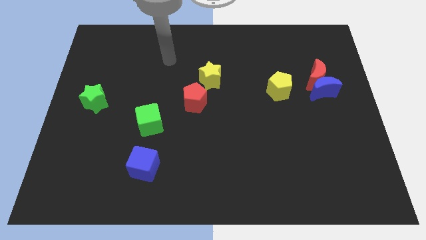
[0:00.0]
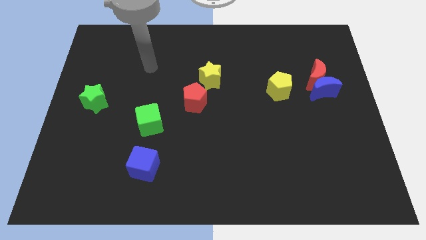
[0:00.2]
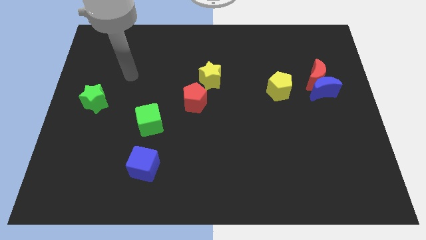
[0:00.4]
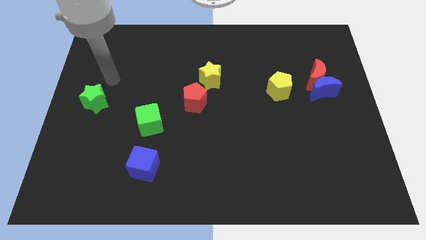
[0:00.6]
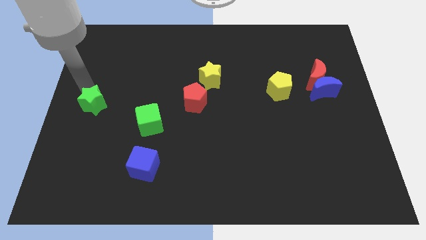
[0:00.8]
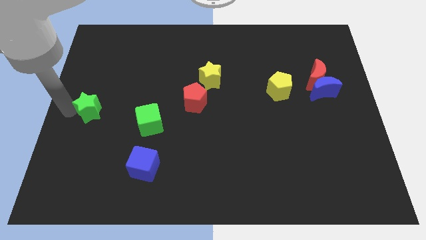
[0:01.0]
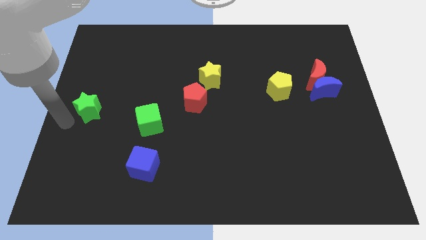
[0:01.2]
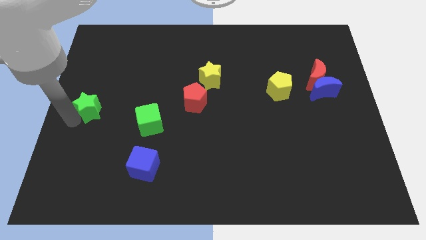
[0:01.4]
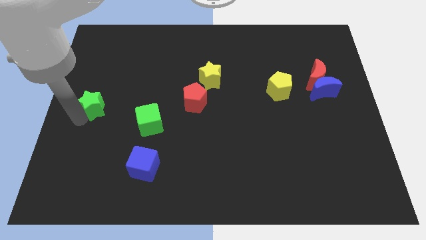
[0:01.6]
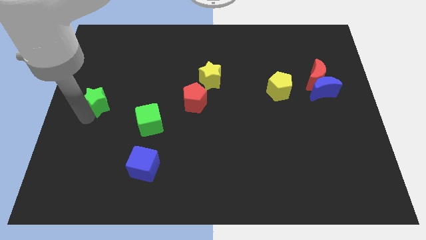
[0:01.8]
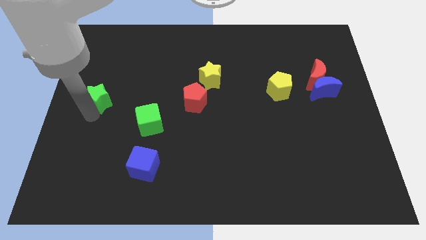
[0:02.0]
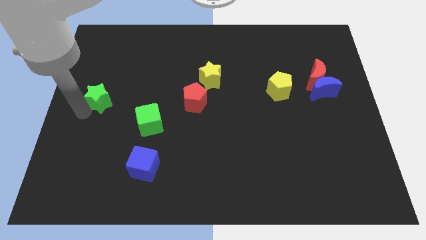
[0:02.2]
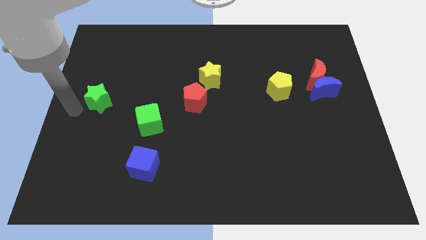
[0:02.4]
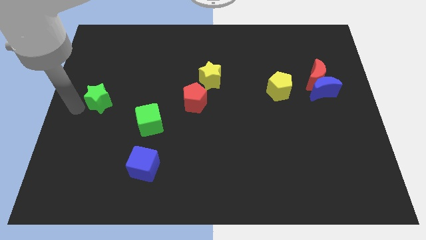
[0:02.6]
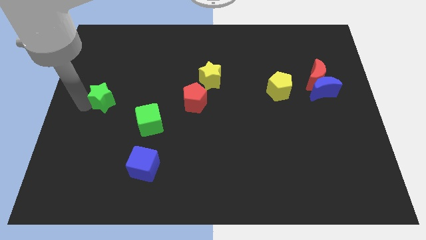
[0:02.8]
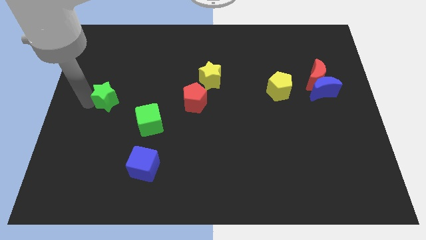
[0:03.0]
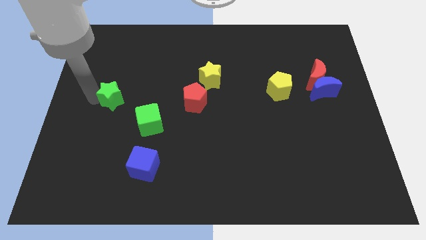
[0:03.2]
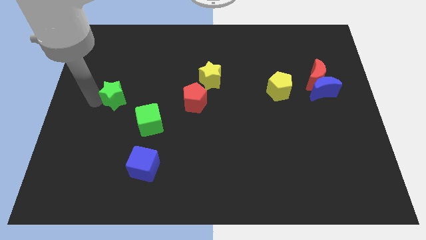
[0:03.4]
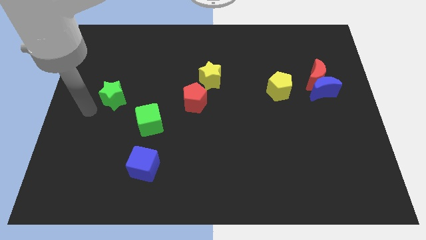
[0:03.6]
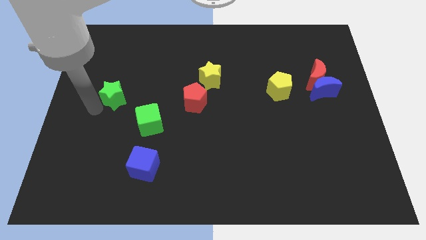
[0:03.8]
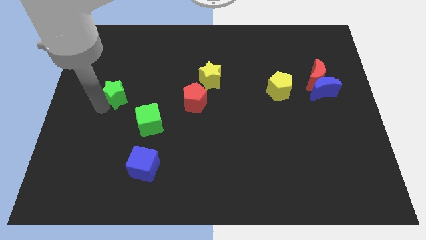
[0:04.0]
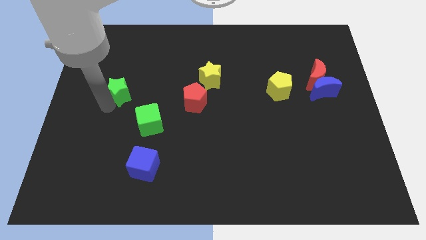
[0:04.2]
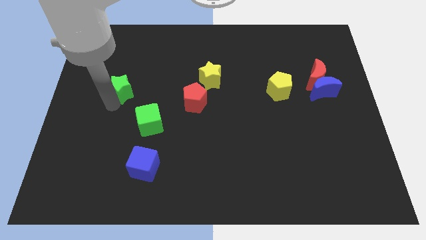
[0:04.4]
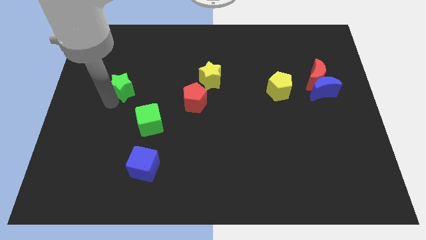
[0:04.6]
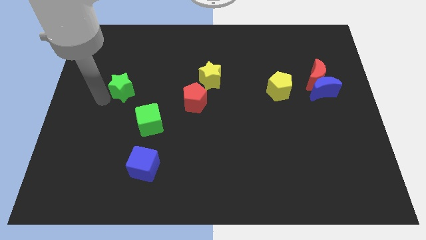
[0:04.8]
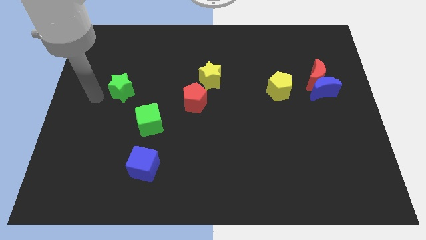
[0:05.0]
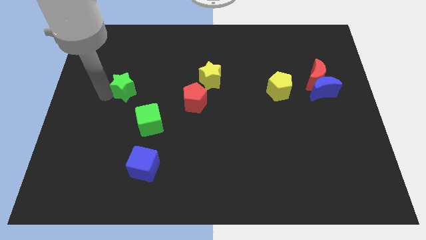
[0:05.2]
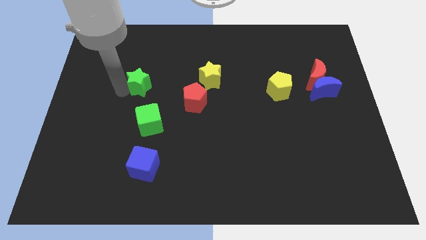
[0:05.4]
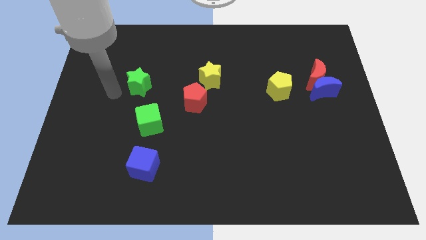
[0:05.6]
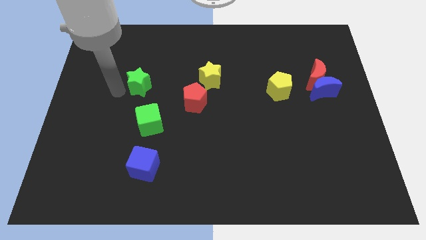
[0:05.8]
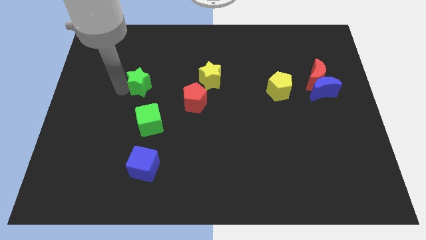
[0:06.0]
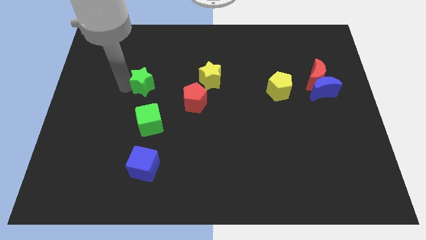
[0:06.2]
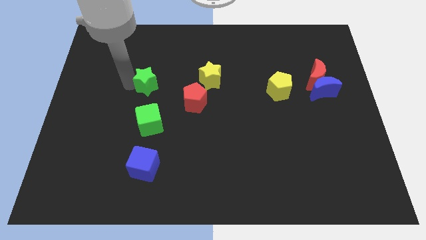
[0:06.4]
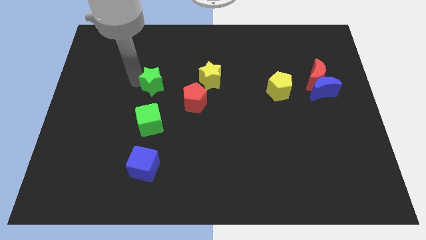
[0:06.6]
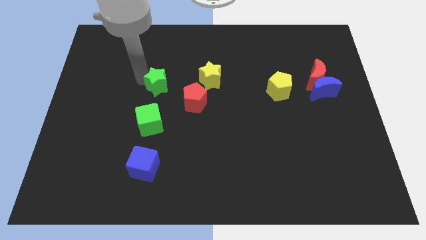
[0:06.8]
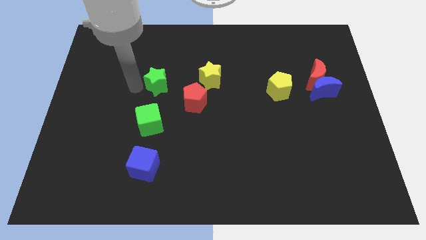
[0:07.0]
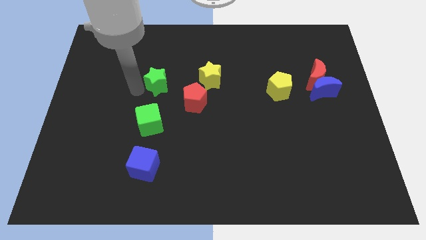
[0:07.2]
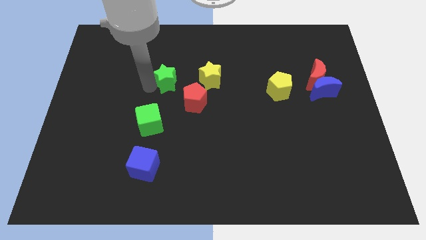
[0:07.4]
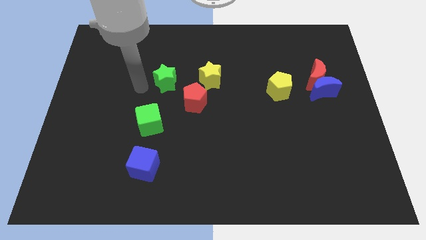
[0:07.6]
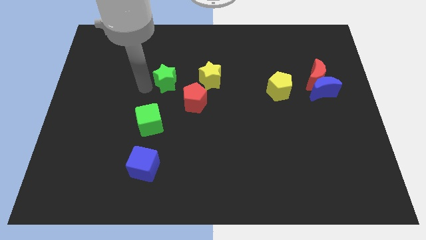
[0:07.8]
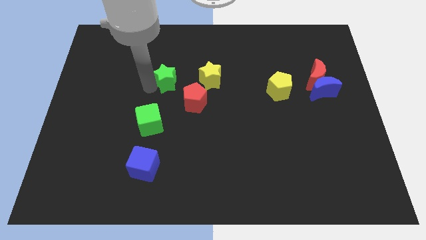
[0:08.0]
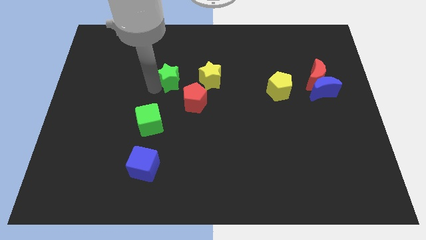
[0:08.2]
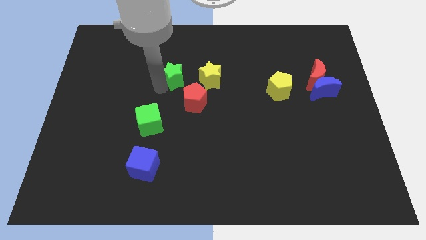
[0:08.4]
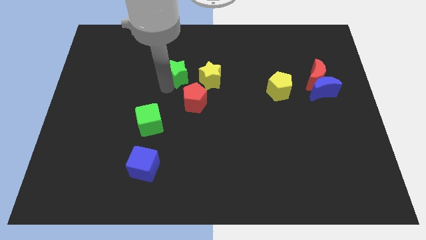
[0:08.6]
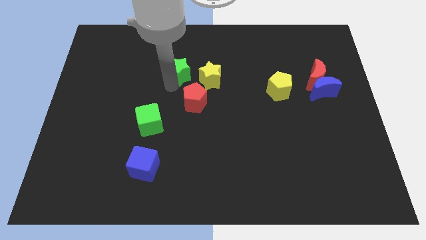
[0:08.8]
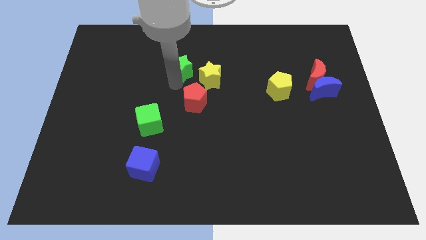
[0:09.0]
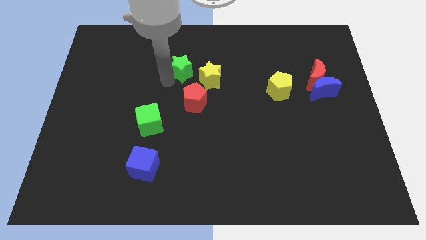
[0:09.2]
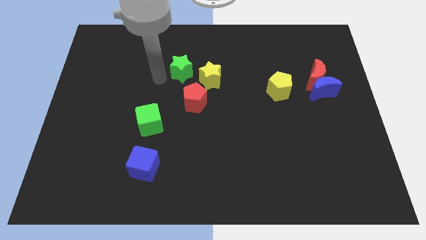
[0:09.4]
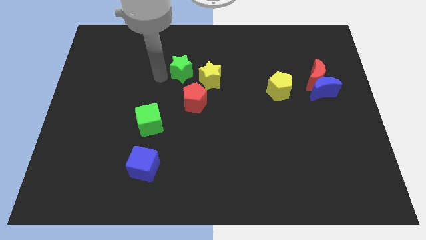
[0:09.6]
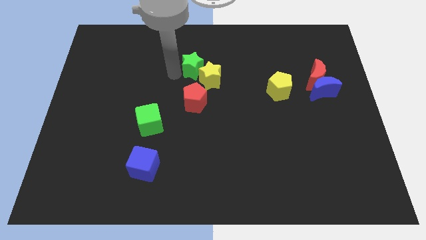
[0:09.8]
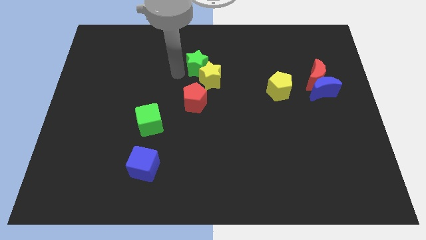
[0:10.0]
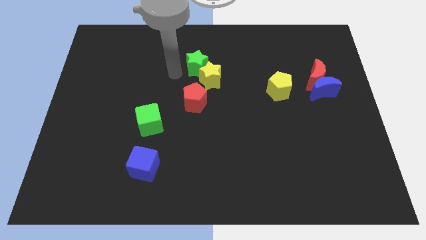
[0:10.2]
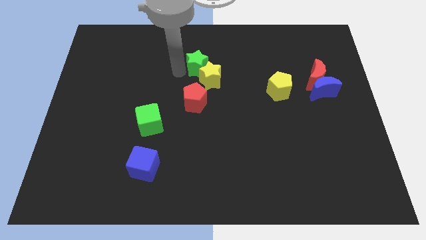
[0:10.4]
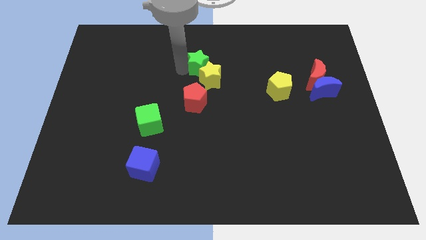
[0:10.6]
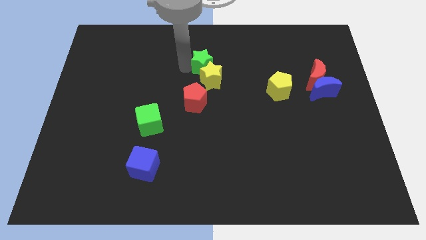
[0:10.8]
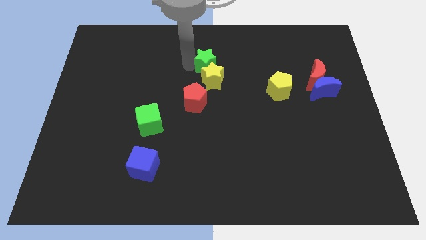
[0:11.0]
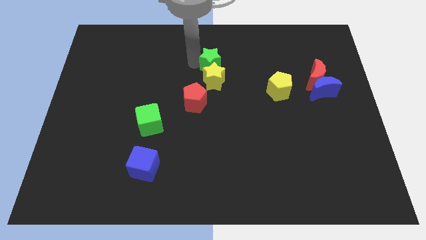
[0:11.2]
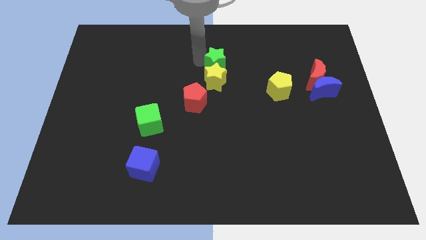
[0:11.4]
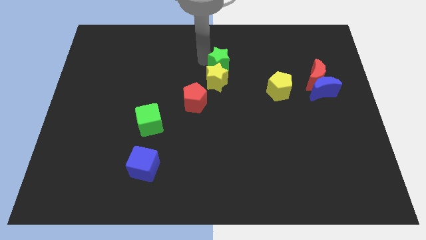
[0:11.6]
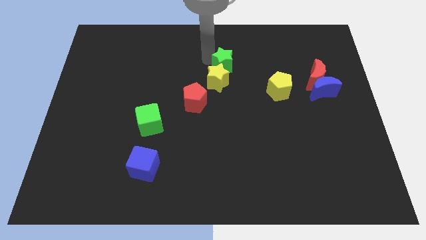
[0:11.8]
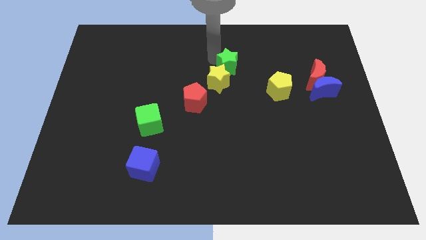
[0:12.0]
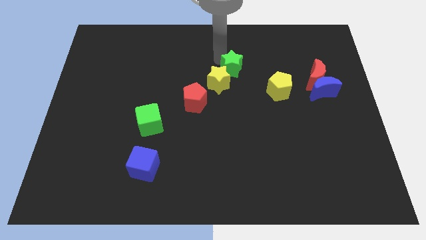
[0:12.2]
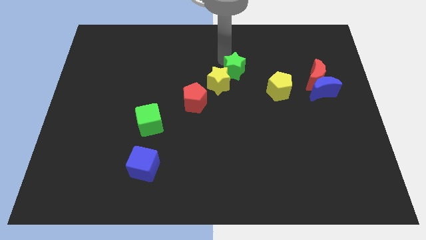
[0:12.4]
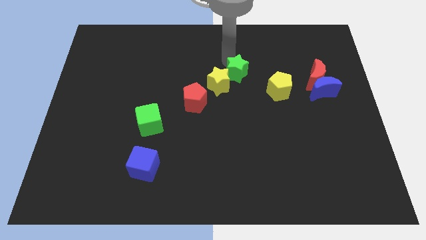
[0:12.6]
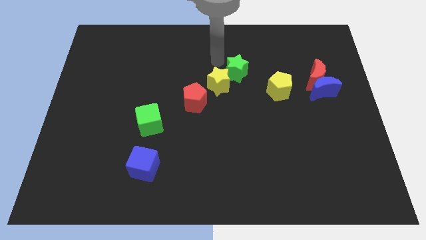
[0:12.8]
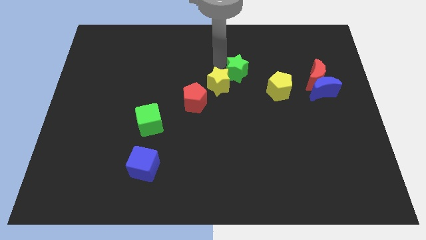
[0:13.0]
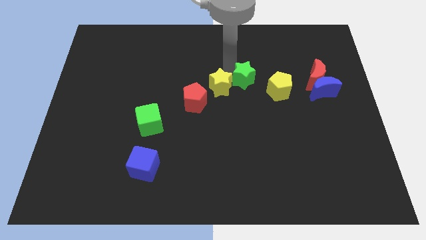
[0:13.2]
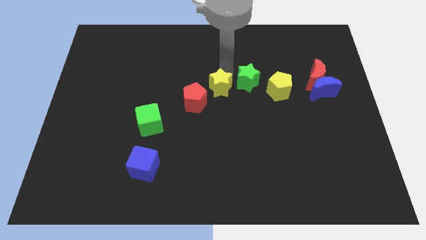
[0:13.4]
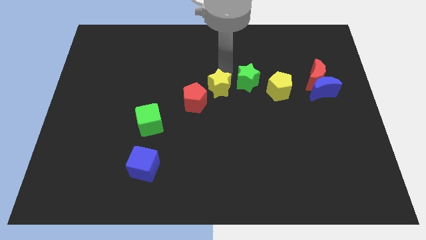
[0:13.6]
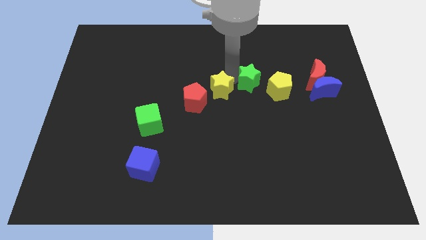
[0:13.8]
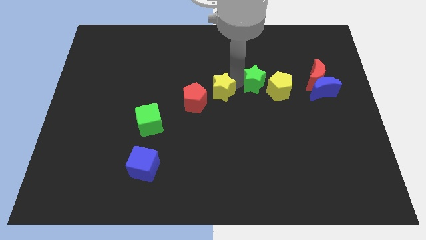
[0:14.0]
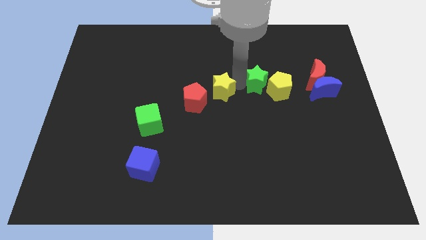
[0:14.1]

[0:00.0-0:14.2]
put the green star to the yellow pentagon

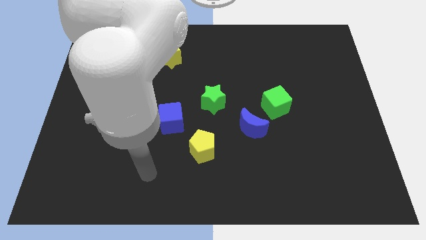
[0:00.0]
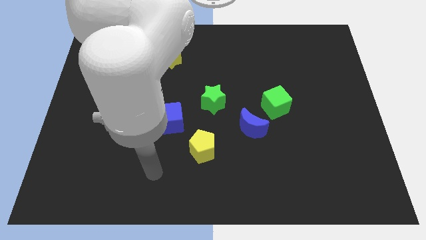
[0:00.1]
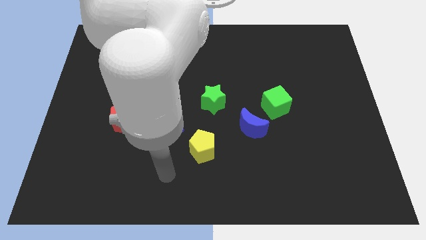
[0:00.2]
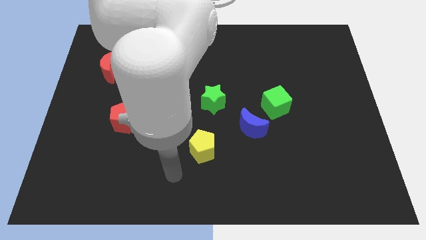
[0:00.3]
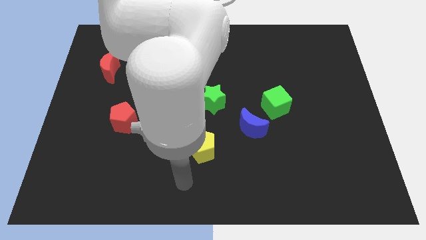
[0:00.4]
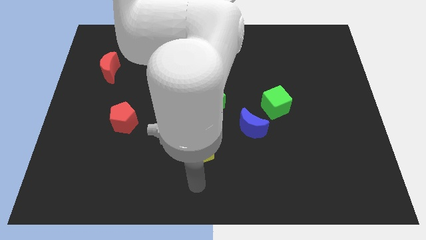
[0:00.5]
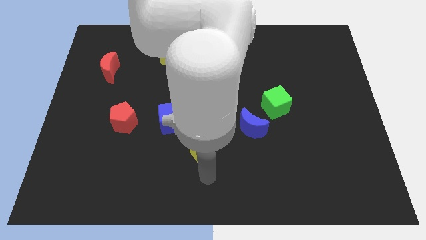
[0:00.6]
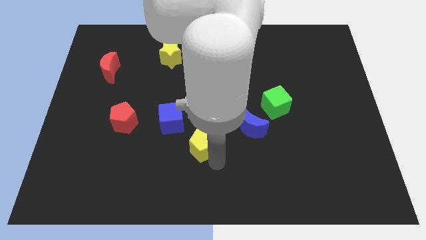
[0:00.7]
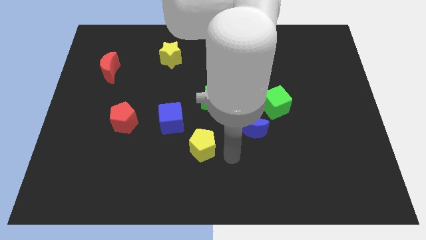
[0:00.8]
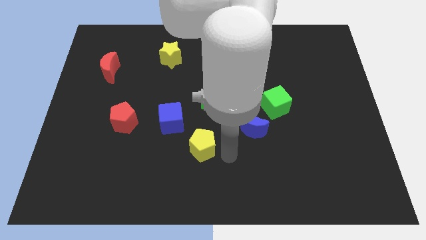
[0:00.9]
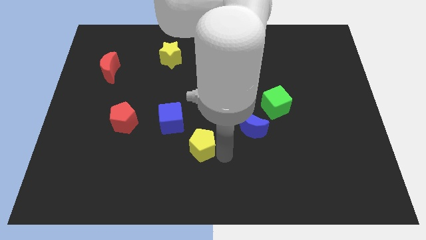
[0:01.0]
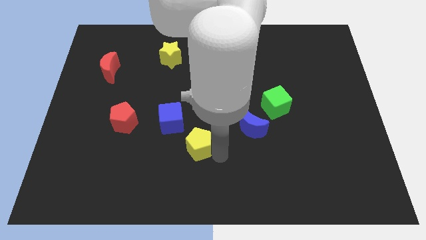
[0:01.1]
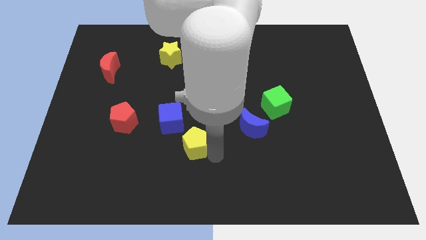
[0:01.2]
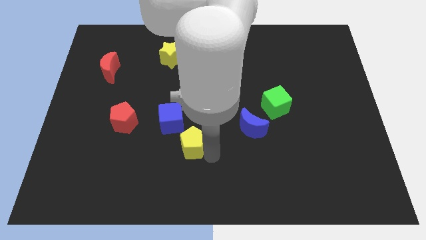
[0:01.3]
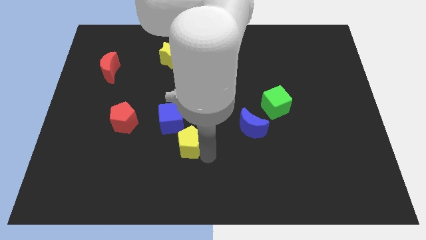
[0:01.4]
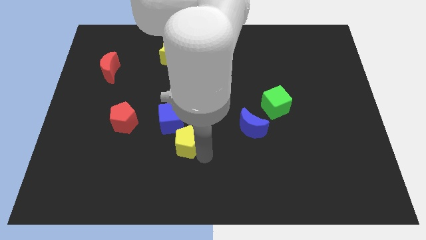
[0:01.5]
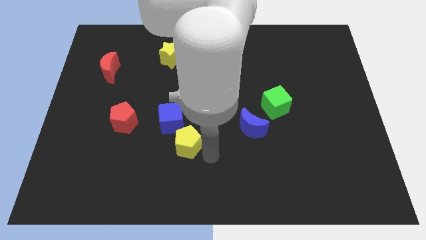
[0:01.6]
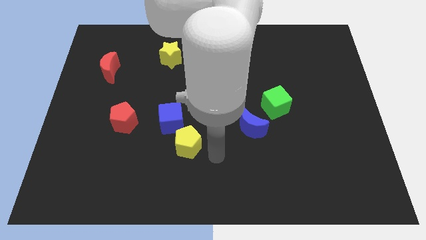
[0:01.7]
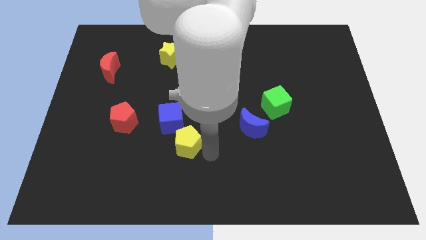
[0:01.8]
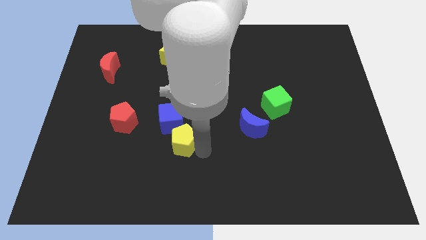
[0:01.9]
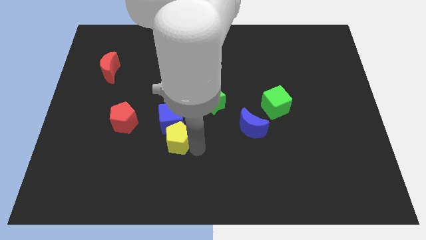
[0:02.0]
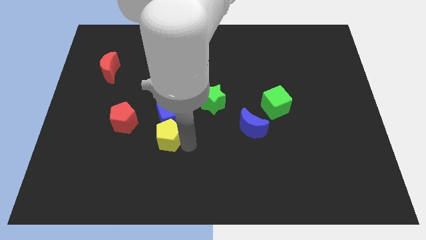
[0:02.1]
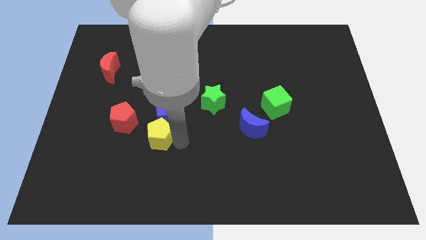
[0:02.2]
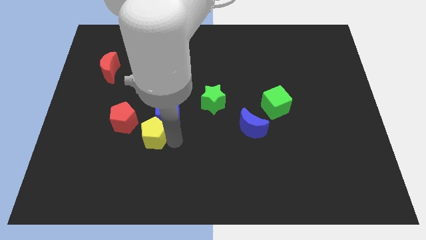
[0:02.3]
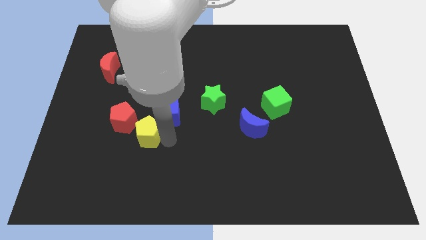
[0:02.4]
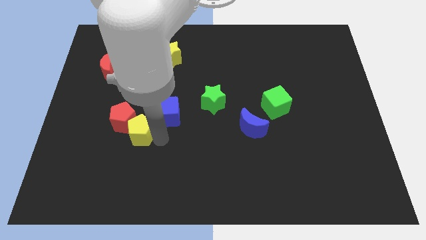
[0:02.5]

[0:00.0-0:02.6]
put the yellow pentagon to the red pentagon
